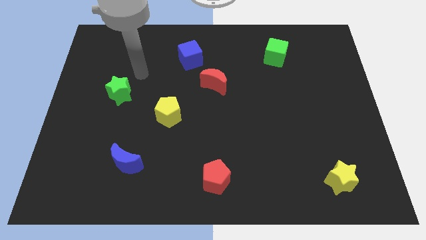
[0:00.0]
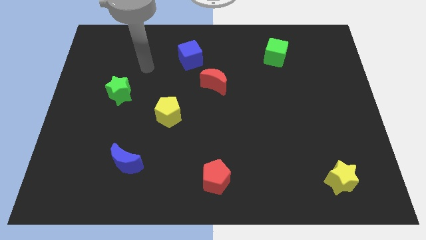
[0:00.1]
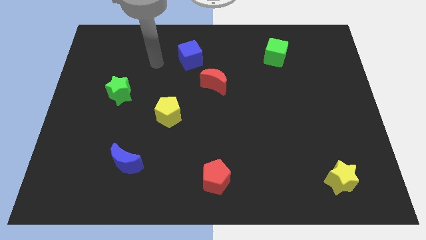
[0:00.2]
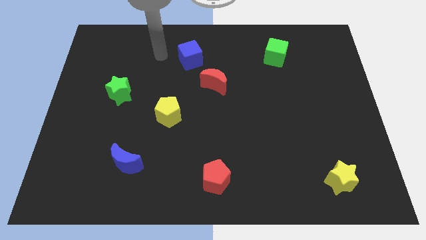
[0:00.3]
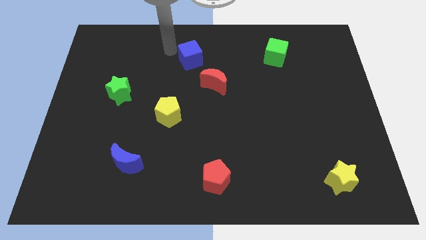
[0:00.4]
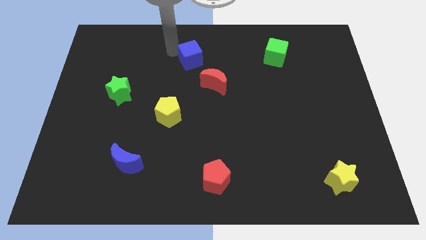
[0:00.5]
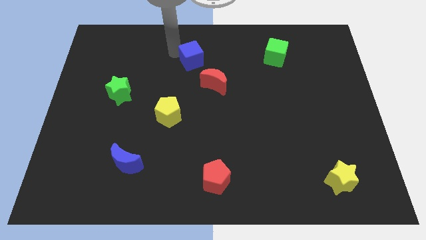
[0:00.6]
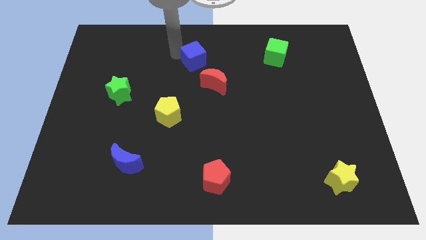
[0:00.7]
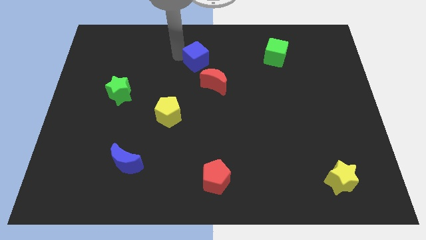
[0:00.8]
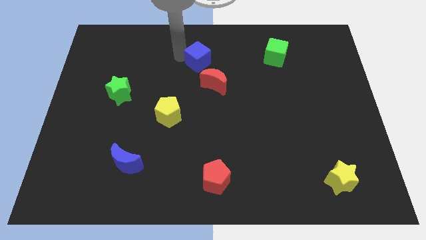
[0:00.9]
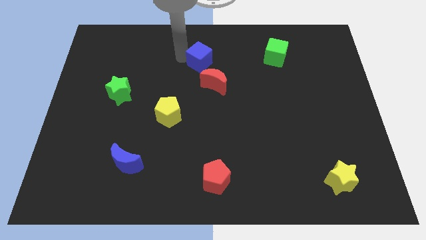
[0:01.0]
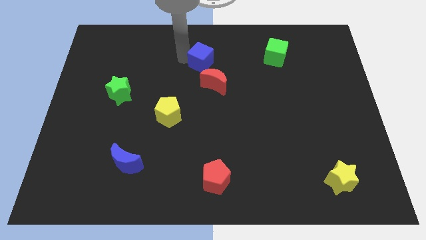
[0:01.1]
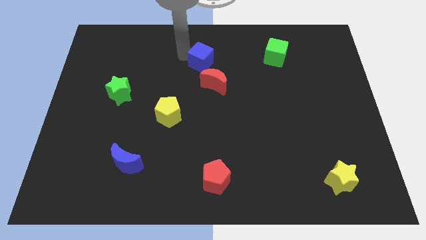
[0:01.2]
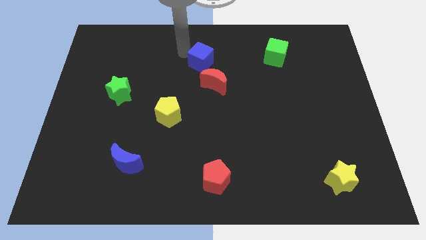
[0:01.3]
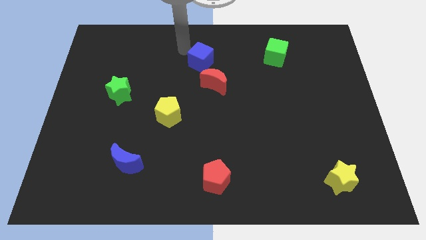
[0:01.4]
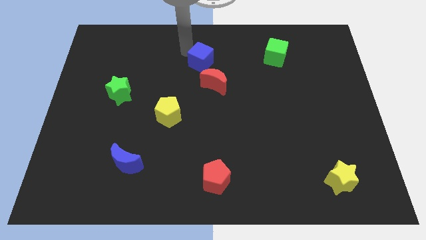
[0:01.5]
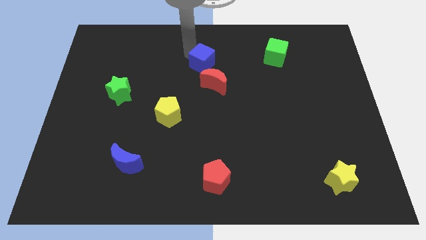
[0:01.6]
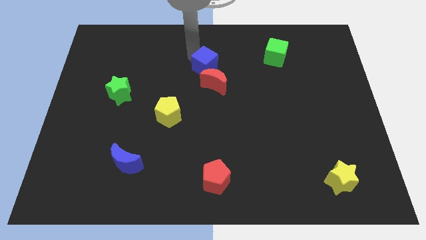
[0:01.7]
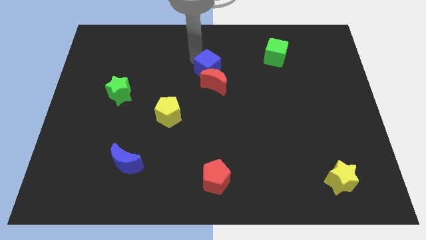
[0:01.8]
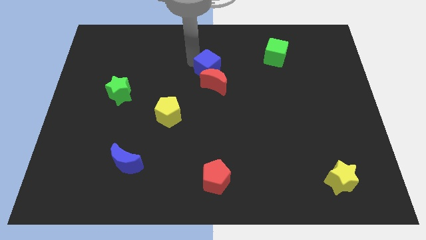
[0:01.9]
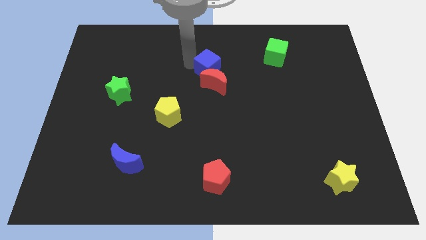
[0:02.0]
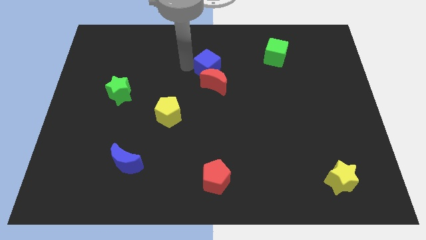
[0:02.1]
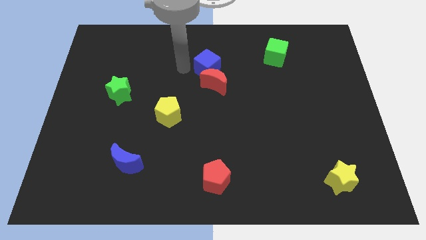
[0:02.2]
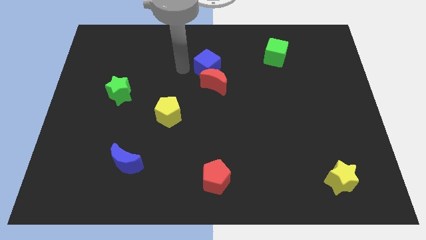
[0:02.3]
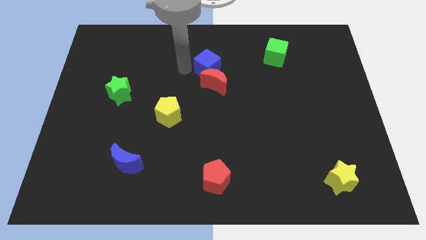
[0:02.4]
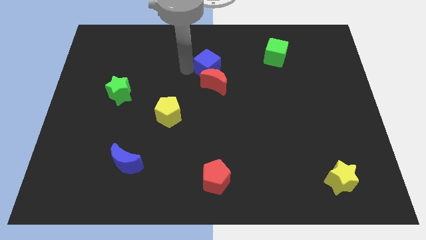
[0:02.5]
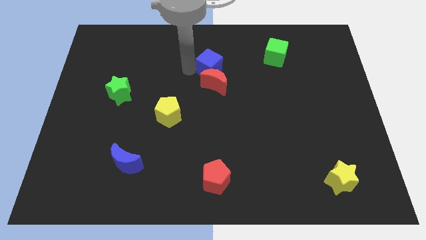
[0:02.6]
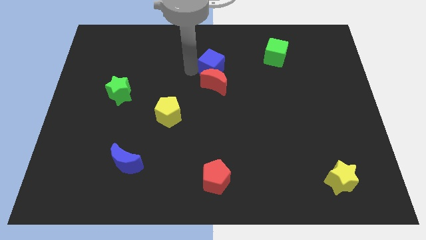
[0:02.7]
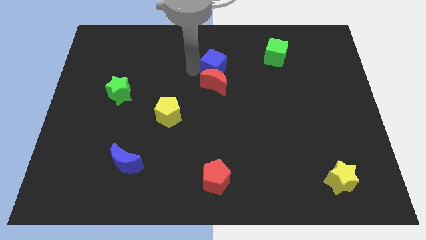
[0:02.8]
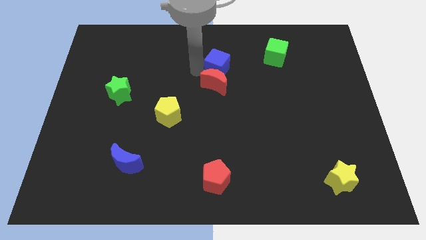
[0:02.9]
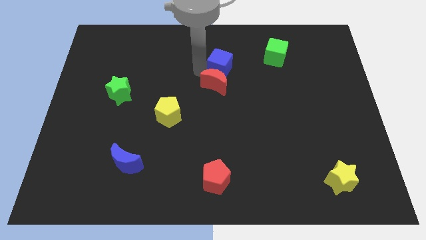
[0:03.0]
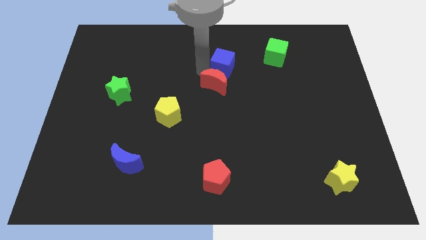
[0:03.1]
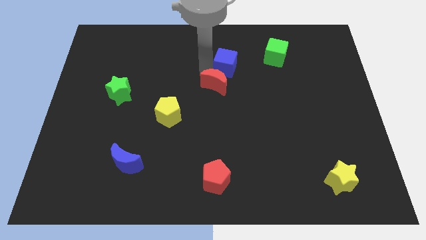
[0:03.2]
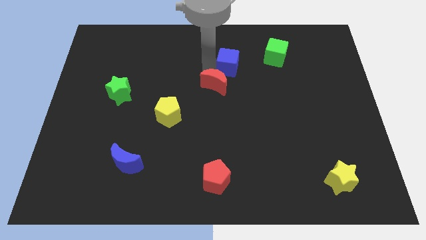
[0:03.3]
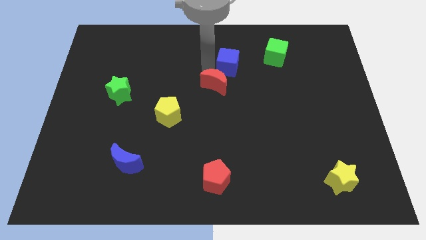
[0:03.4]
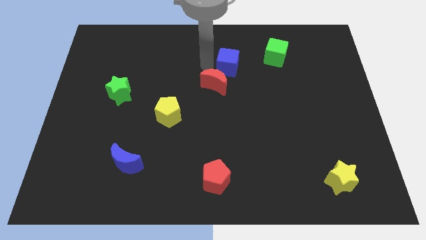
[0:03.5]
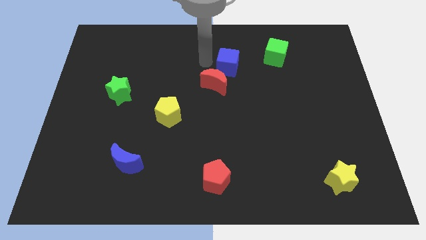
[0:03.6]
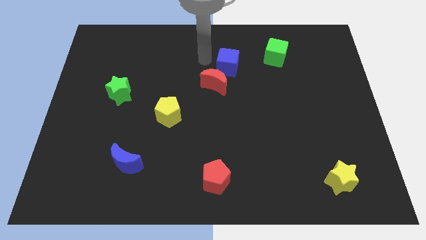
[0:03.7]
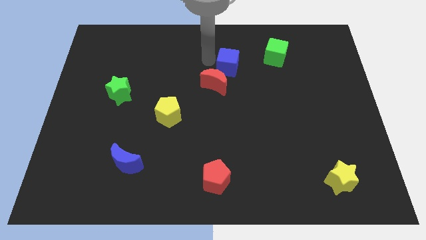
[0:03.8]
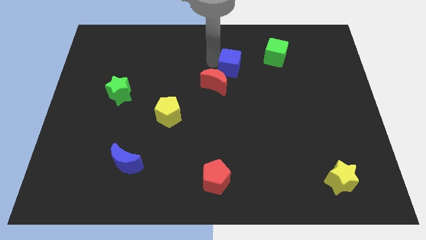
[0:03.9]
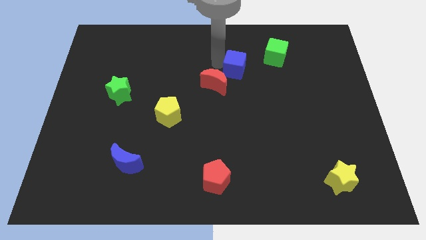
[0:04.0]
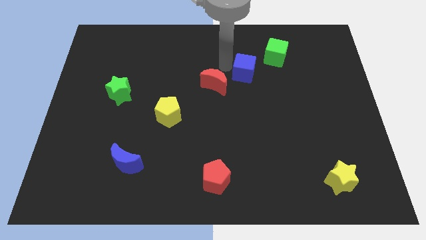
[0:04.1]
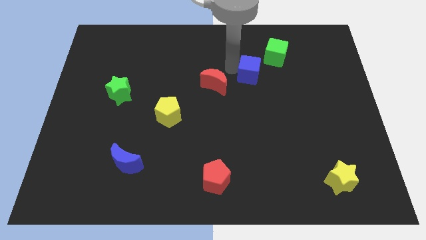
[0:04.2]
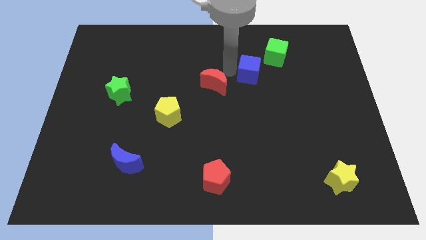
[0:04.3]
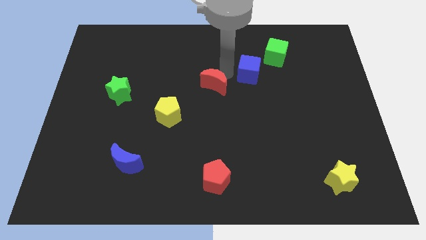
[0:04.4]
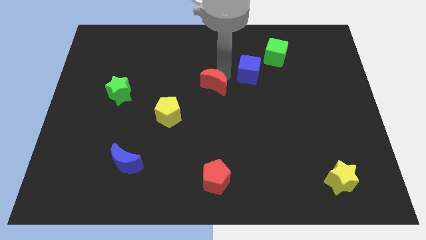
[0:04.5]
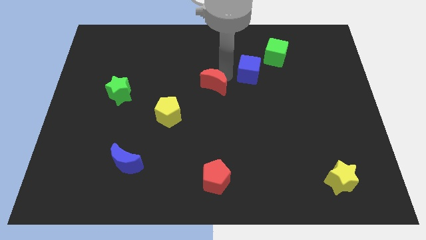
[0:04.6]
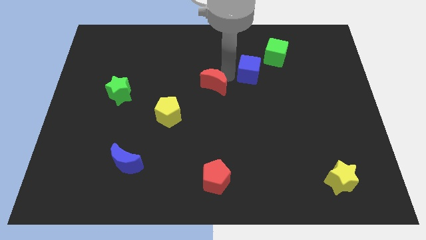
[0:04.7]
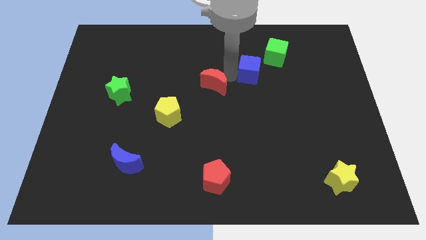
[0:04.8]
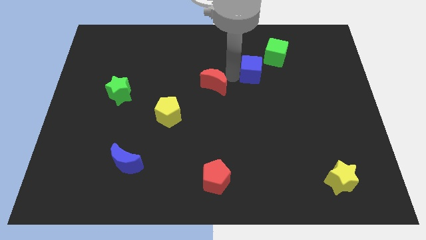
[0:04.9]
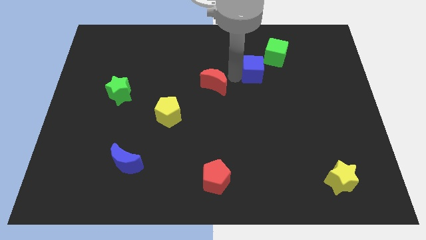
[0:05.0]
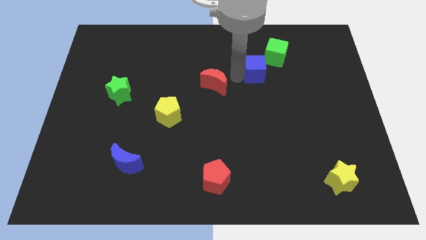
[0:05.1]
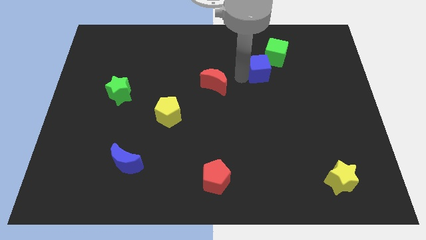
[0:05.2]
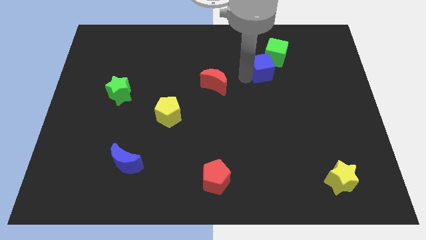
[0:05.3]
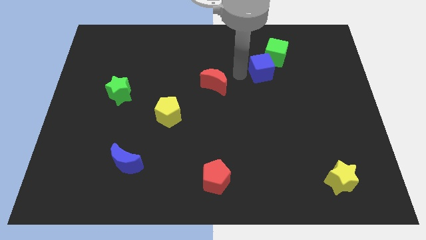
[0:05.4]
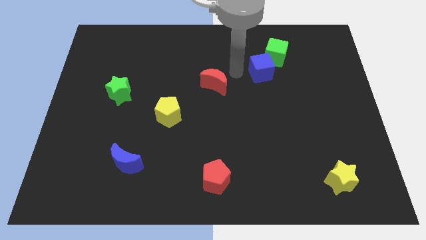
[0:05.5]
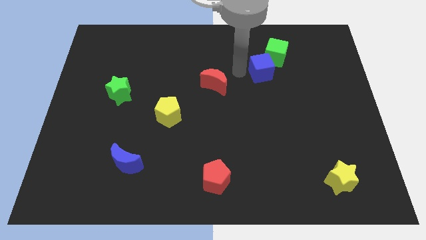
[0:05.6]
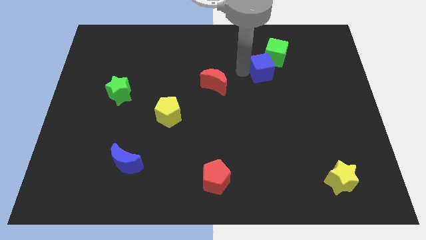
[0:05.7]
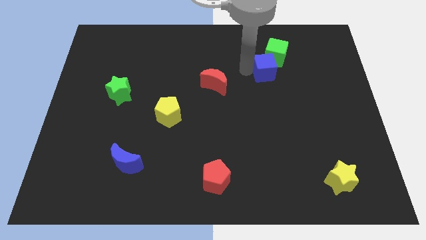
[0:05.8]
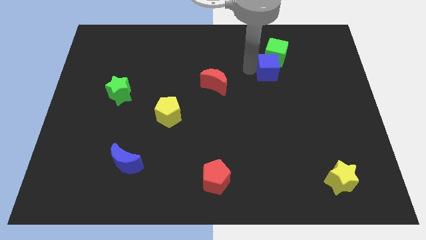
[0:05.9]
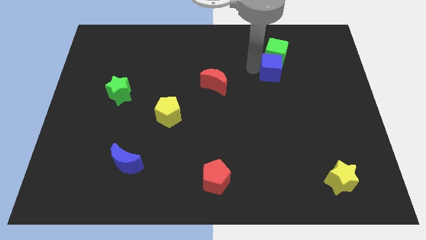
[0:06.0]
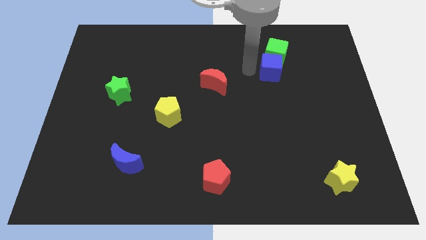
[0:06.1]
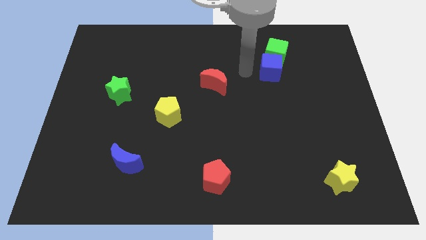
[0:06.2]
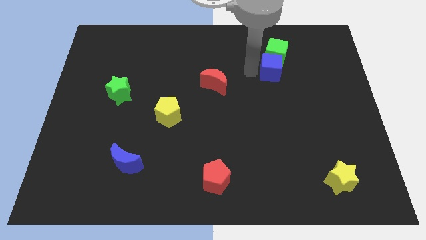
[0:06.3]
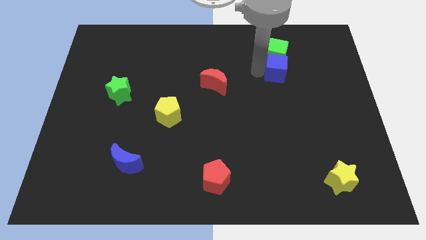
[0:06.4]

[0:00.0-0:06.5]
push the blue cube to the bottom right side of the green cube
